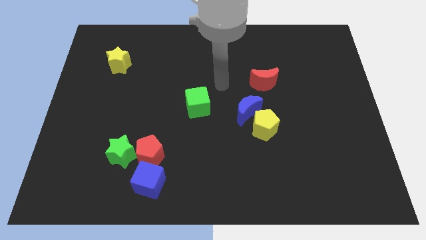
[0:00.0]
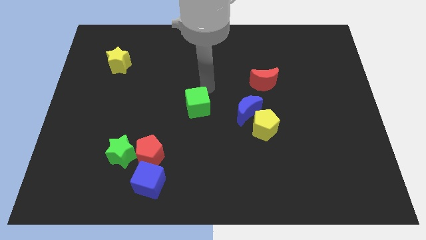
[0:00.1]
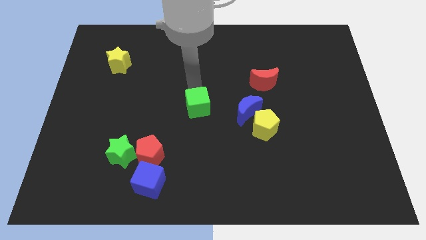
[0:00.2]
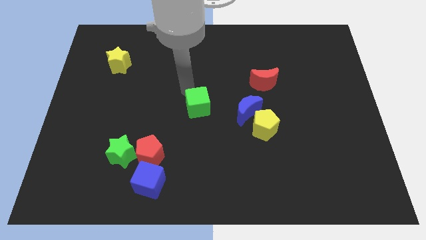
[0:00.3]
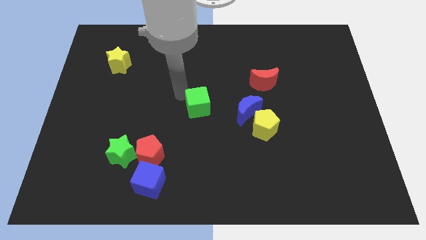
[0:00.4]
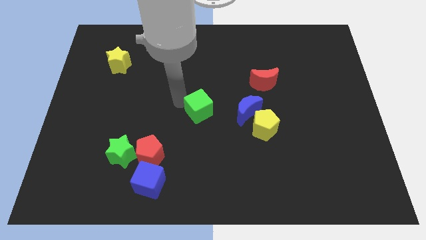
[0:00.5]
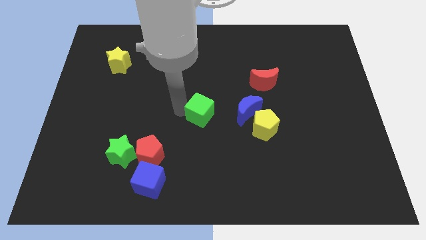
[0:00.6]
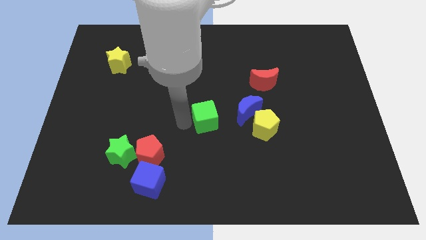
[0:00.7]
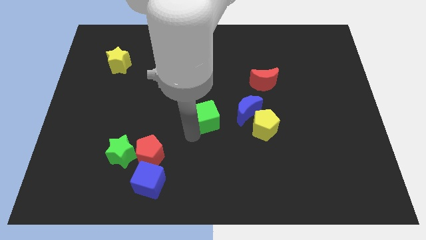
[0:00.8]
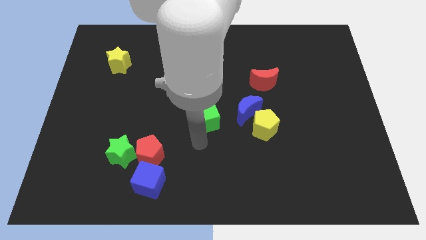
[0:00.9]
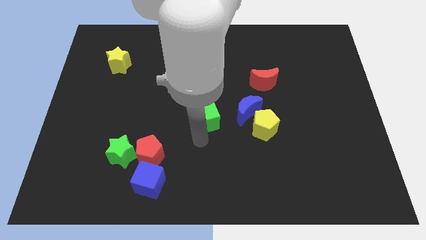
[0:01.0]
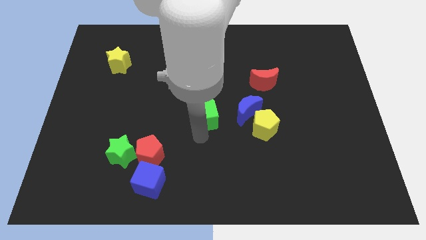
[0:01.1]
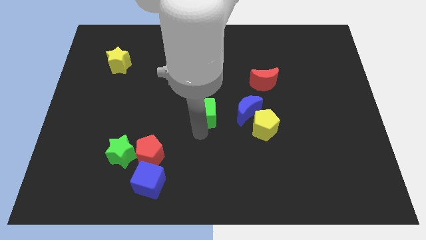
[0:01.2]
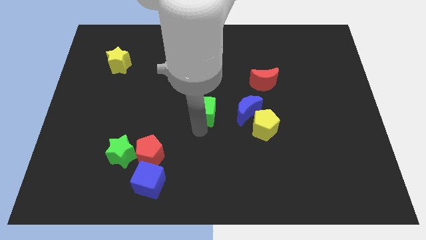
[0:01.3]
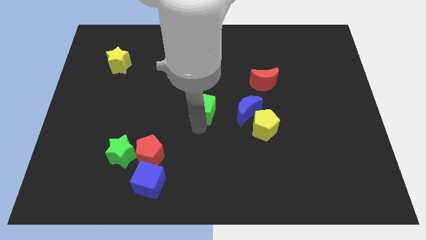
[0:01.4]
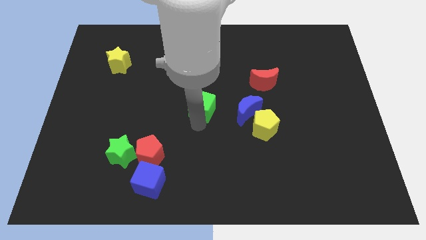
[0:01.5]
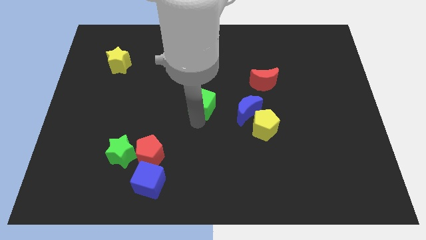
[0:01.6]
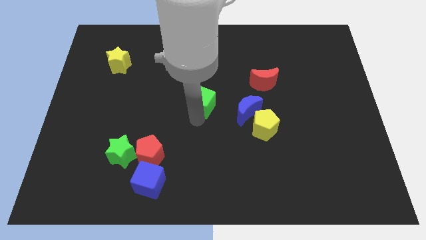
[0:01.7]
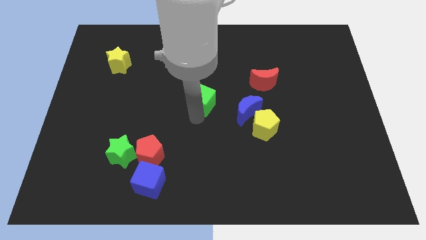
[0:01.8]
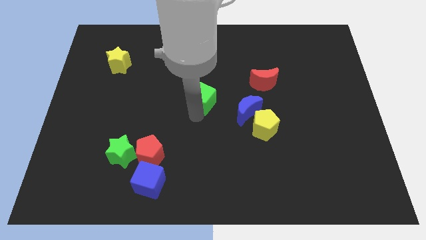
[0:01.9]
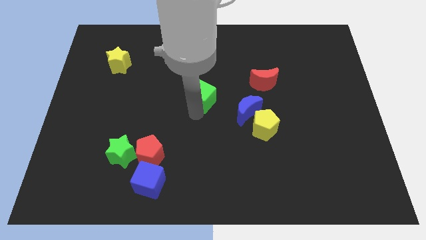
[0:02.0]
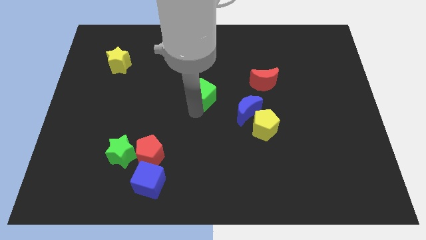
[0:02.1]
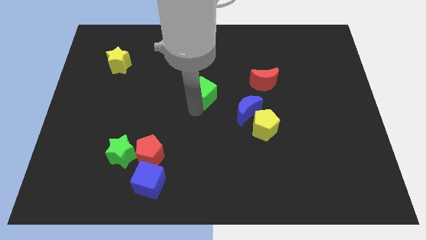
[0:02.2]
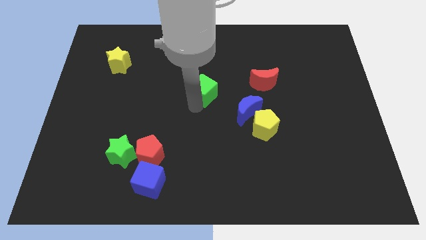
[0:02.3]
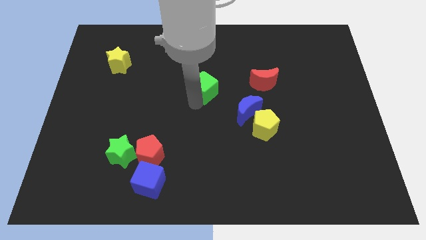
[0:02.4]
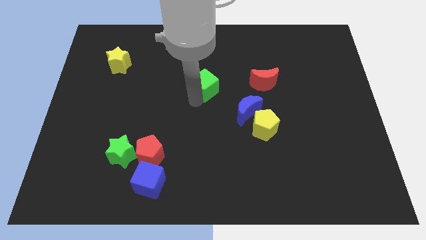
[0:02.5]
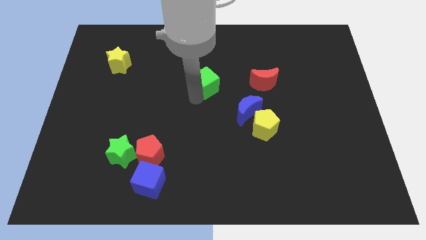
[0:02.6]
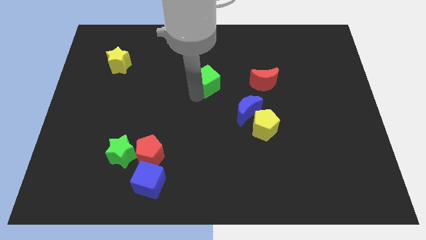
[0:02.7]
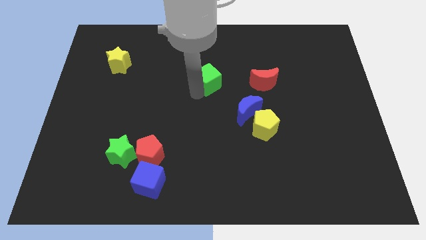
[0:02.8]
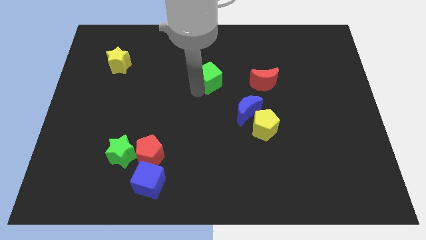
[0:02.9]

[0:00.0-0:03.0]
slightly push the green cube upwards and right diagonally

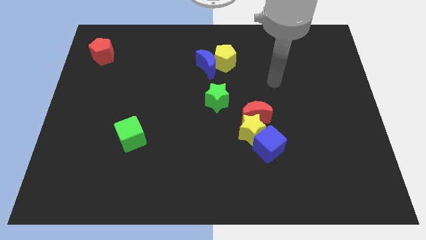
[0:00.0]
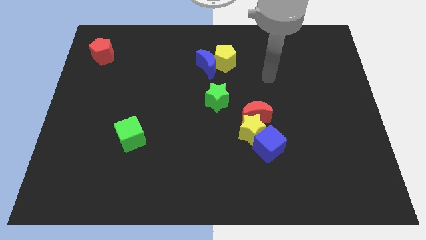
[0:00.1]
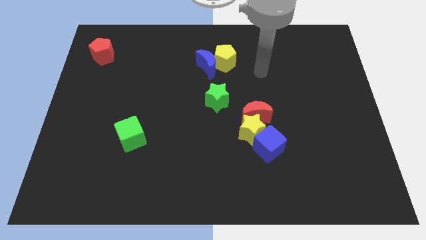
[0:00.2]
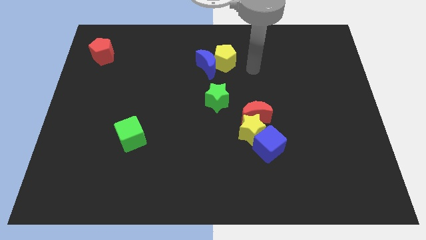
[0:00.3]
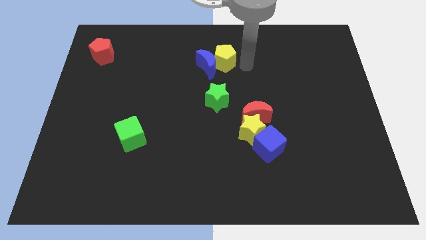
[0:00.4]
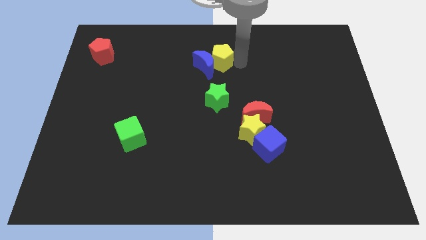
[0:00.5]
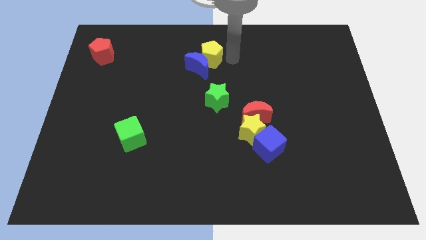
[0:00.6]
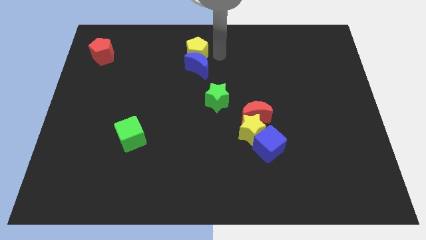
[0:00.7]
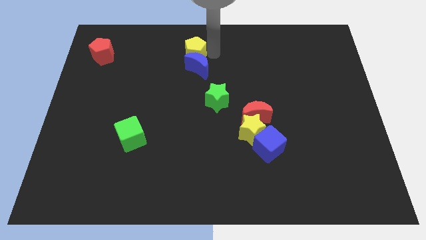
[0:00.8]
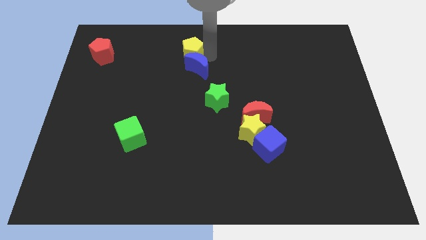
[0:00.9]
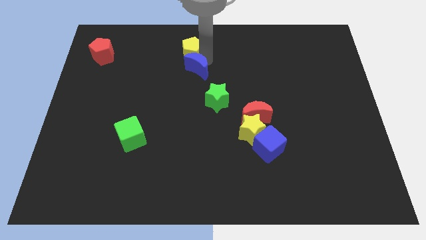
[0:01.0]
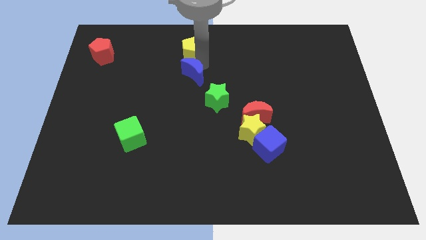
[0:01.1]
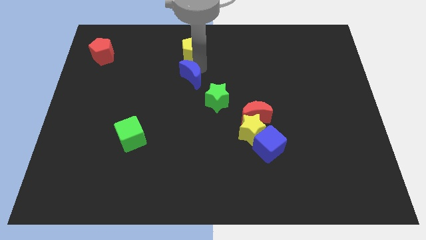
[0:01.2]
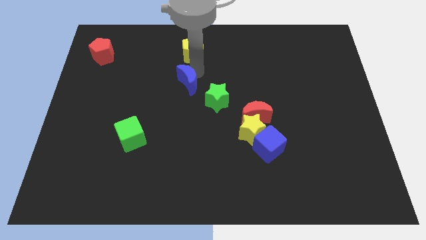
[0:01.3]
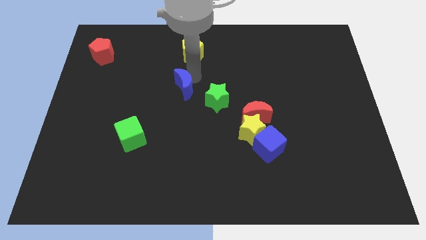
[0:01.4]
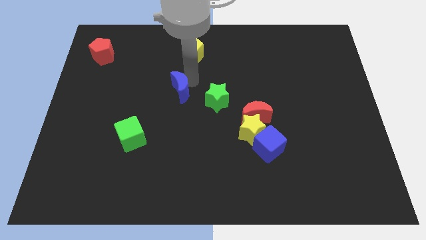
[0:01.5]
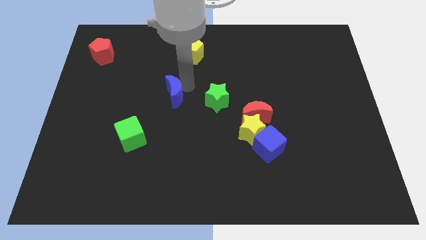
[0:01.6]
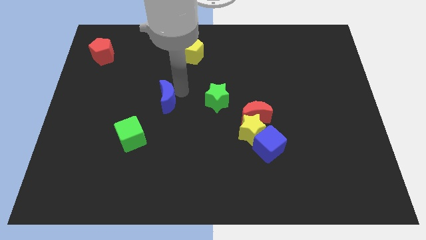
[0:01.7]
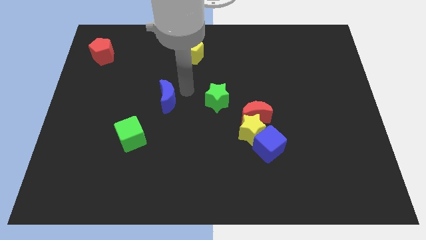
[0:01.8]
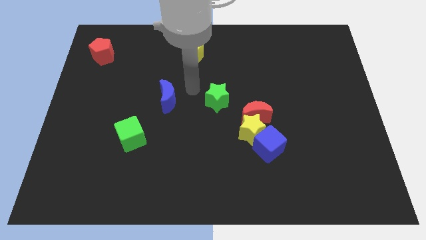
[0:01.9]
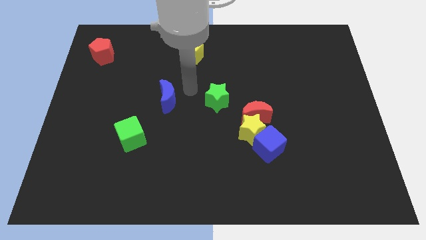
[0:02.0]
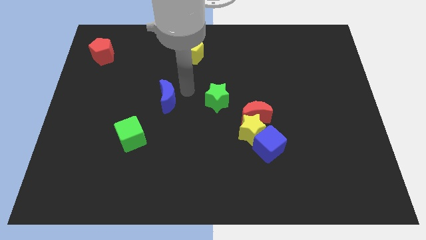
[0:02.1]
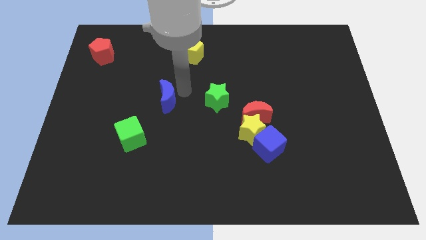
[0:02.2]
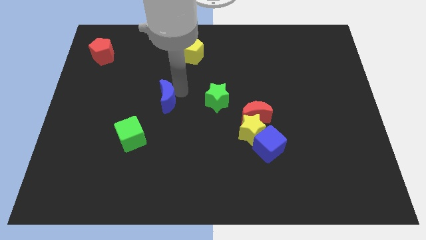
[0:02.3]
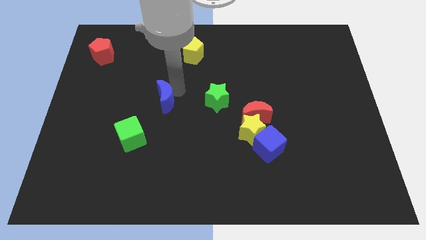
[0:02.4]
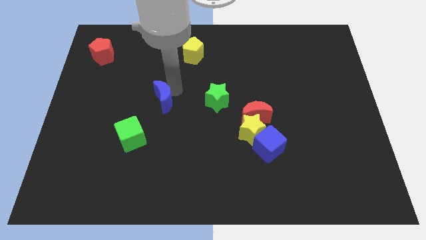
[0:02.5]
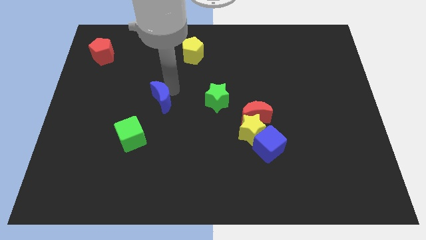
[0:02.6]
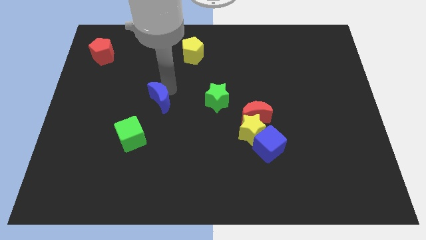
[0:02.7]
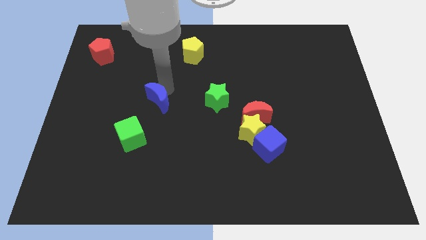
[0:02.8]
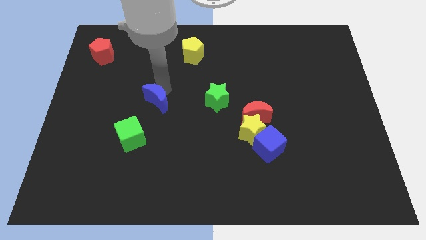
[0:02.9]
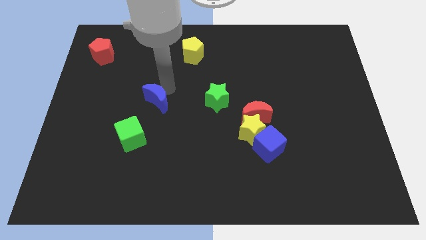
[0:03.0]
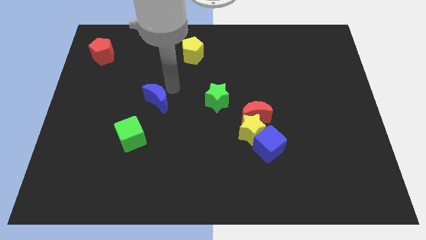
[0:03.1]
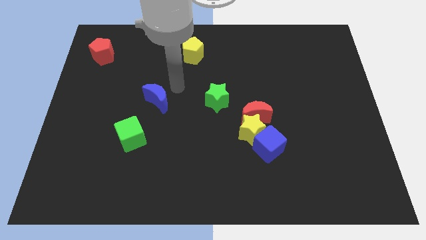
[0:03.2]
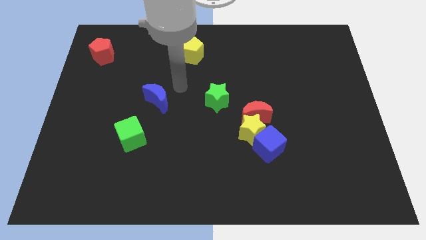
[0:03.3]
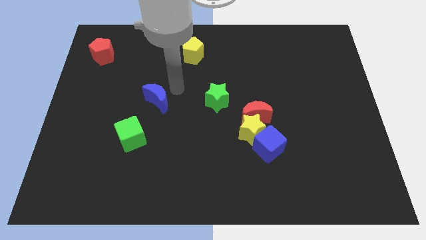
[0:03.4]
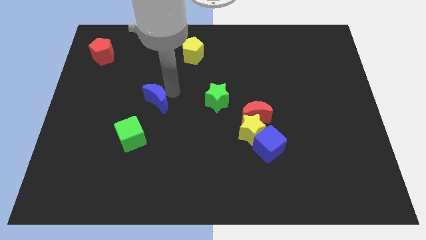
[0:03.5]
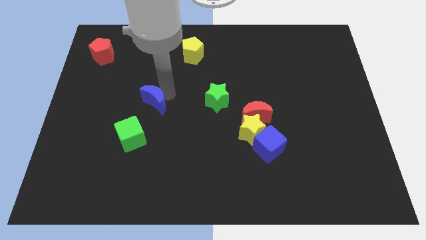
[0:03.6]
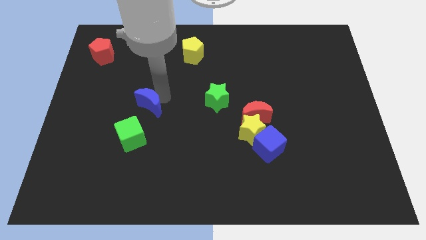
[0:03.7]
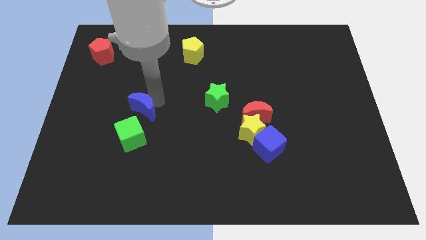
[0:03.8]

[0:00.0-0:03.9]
push the blue moon down and then to the left

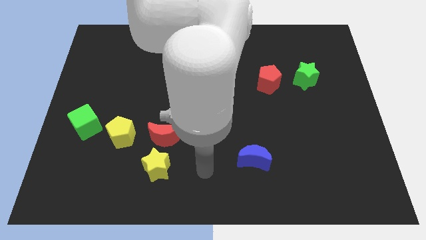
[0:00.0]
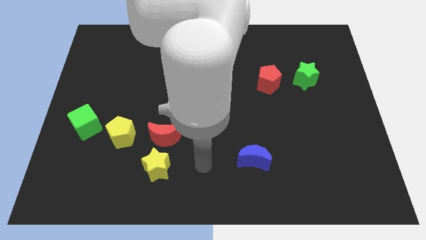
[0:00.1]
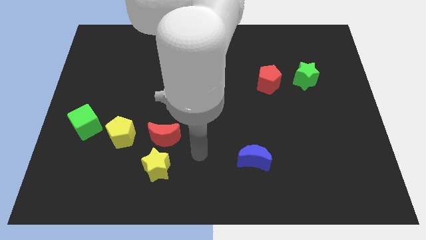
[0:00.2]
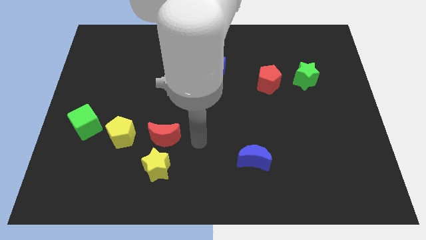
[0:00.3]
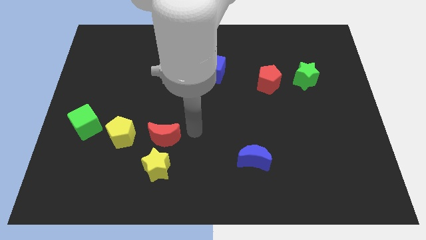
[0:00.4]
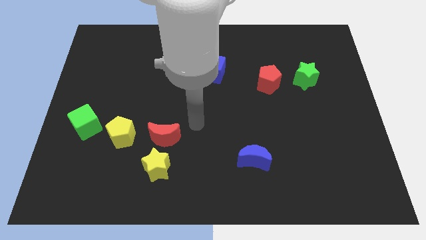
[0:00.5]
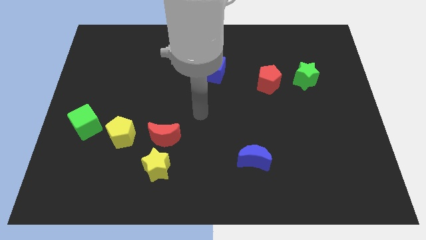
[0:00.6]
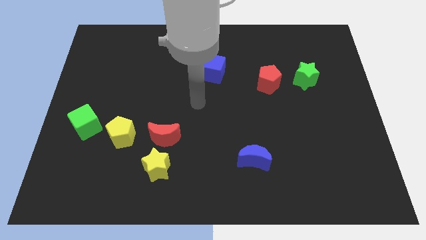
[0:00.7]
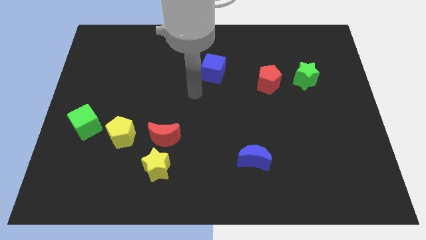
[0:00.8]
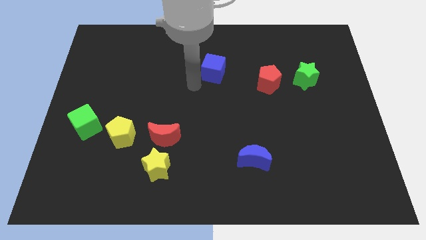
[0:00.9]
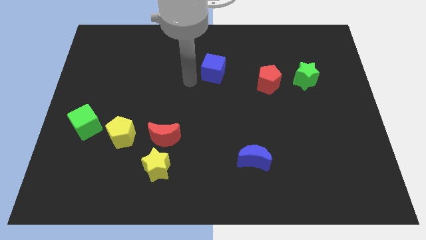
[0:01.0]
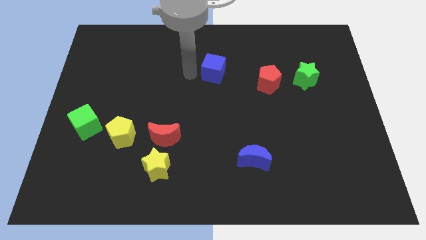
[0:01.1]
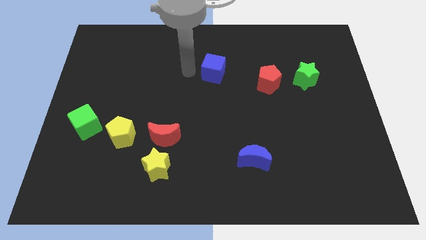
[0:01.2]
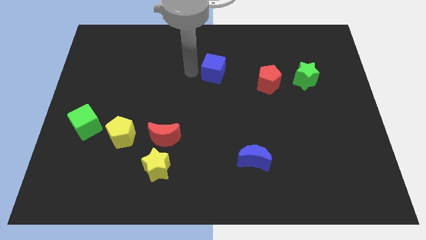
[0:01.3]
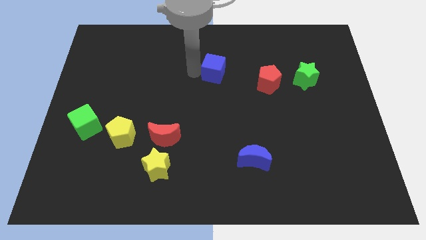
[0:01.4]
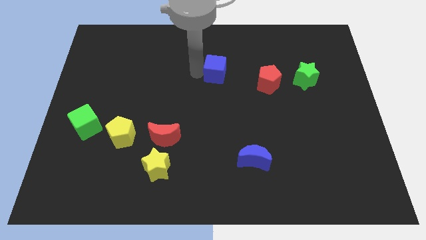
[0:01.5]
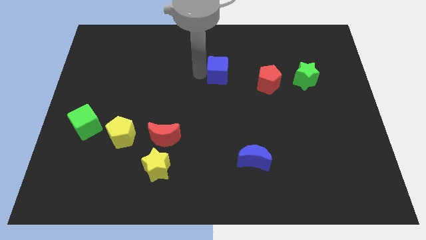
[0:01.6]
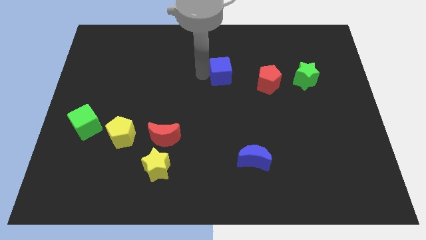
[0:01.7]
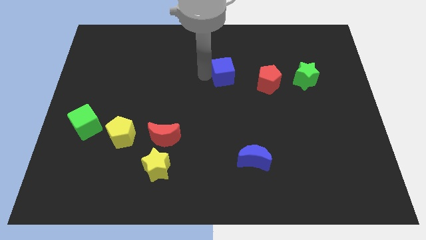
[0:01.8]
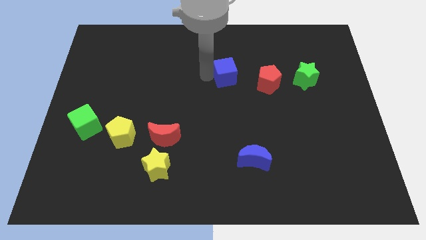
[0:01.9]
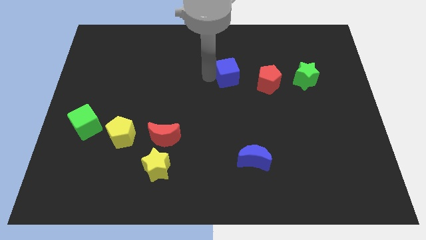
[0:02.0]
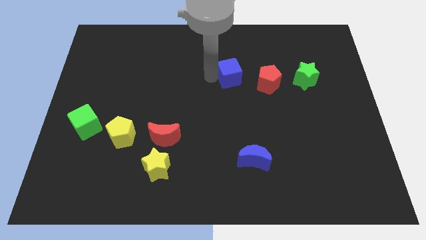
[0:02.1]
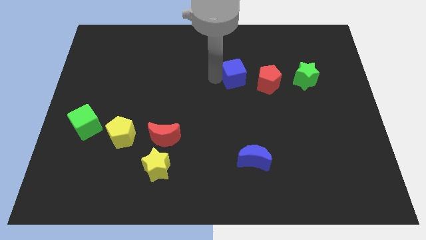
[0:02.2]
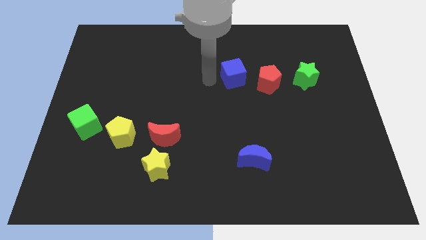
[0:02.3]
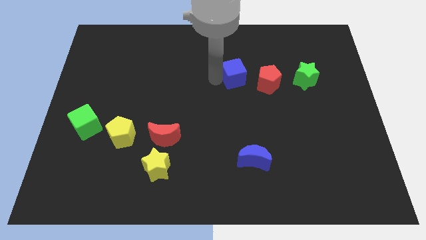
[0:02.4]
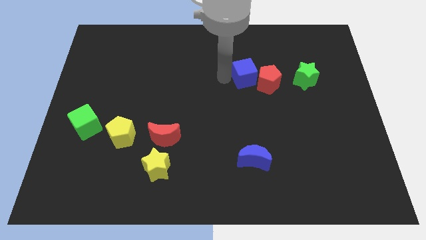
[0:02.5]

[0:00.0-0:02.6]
slightly push the blue cube to the right
